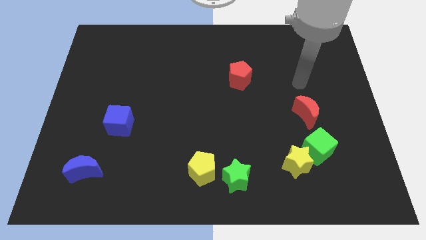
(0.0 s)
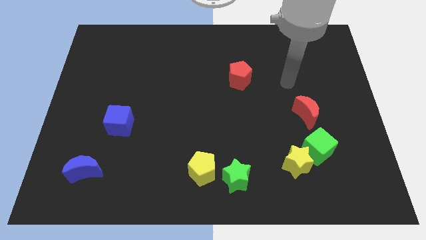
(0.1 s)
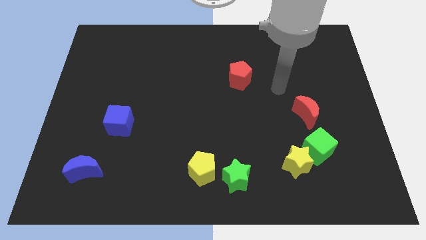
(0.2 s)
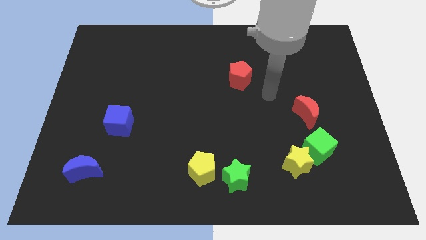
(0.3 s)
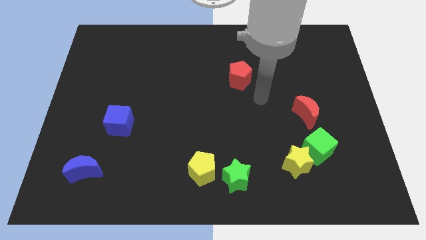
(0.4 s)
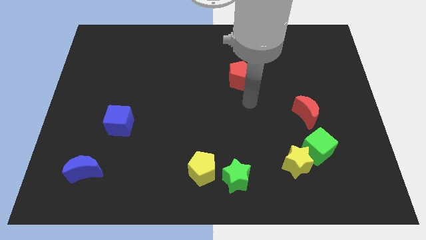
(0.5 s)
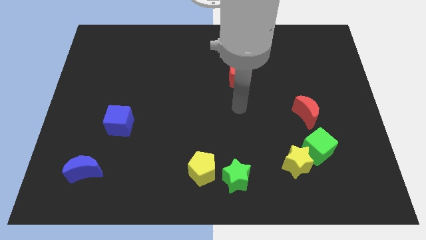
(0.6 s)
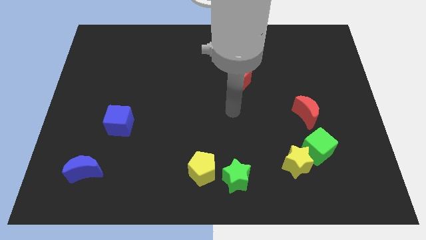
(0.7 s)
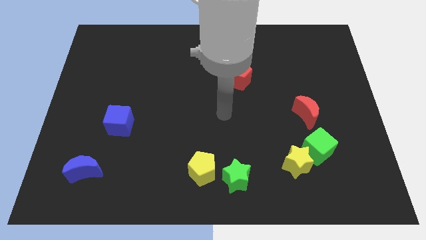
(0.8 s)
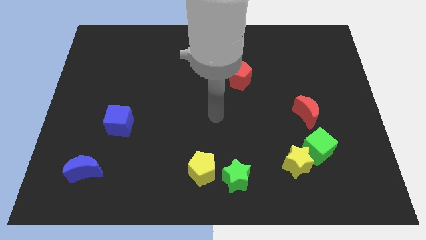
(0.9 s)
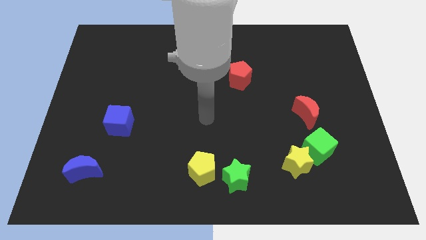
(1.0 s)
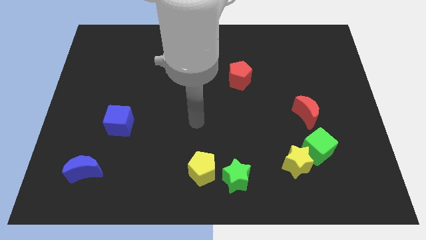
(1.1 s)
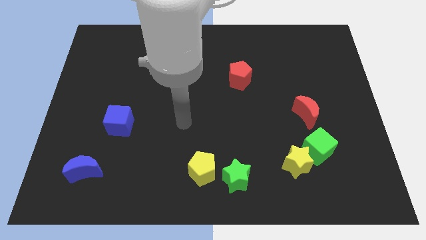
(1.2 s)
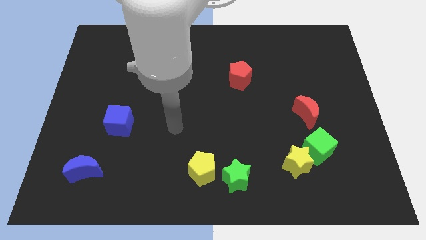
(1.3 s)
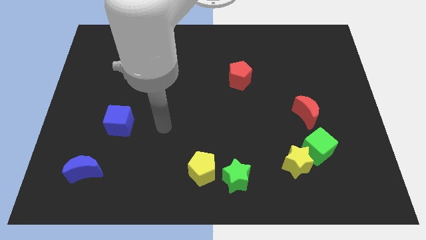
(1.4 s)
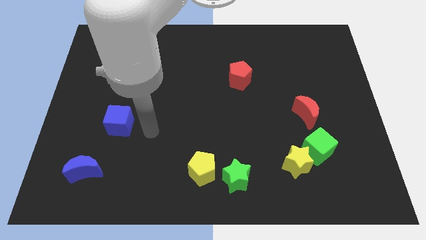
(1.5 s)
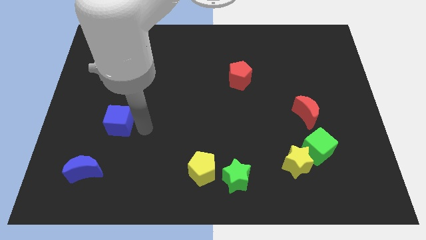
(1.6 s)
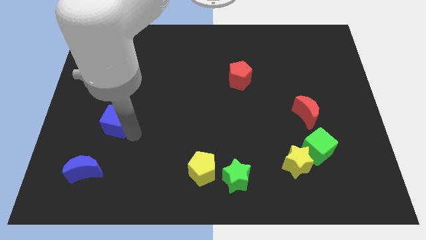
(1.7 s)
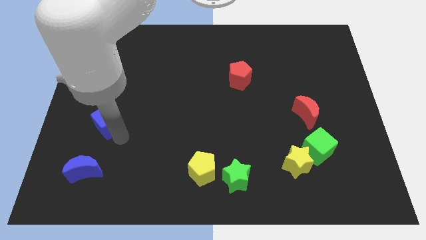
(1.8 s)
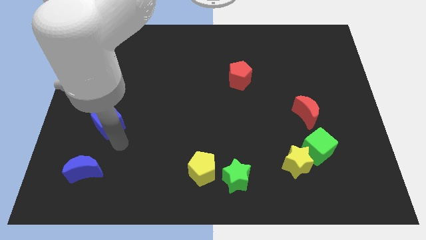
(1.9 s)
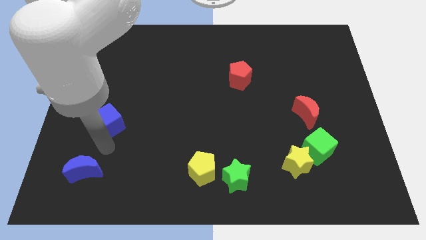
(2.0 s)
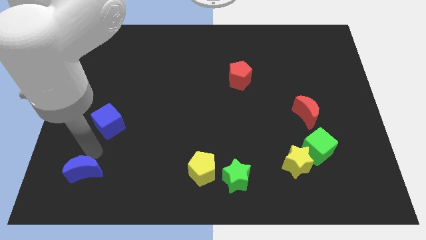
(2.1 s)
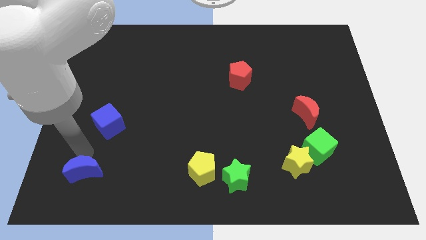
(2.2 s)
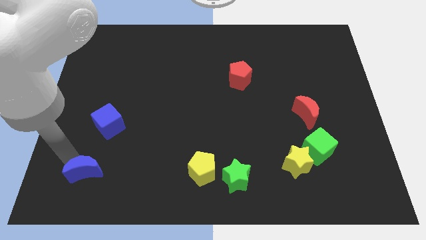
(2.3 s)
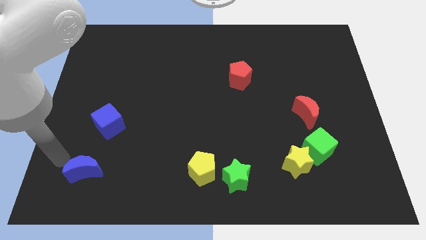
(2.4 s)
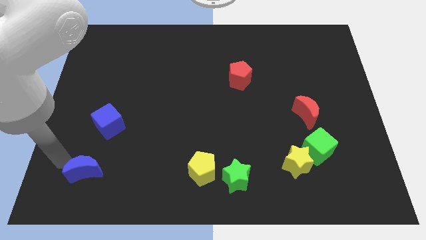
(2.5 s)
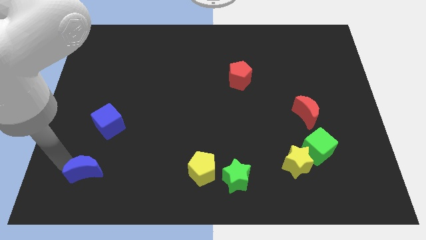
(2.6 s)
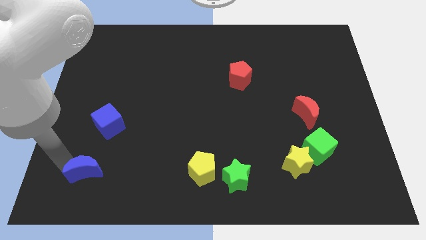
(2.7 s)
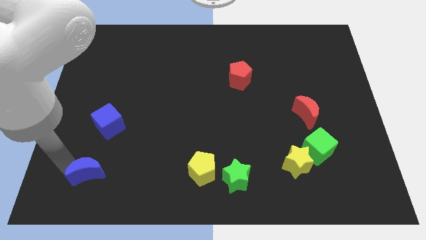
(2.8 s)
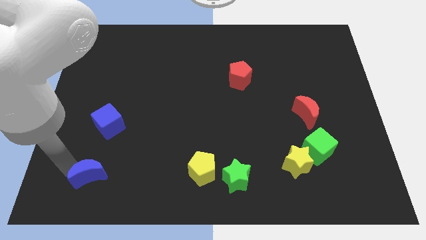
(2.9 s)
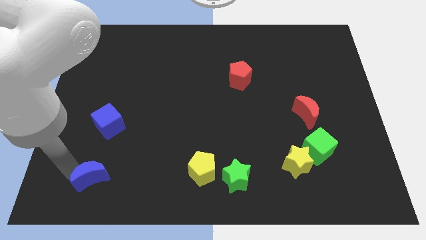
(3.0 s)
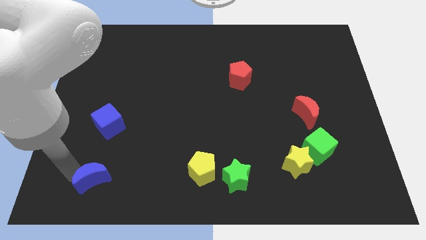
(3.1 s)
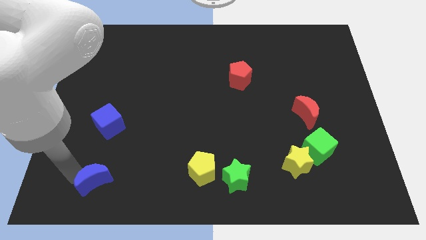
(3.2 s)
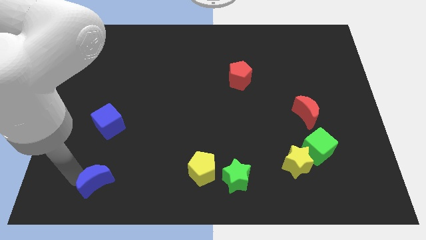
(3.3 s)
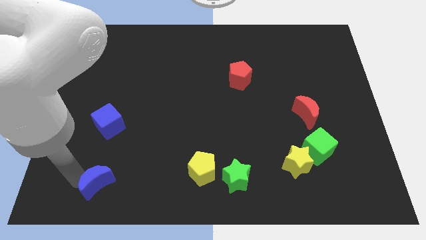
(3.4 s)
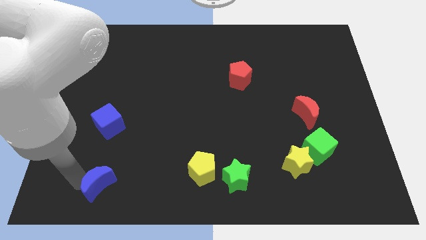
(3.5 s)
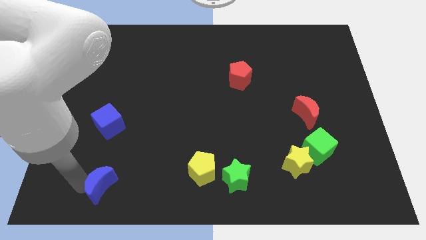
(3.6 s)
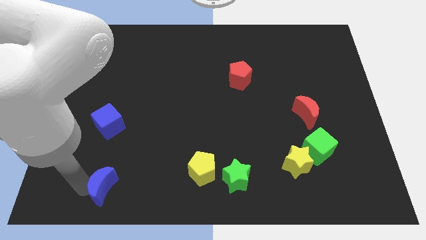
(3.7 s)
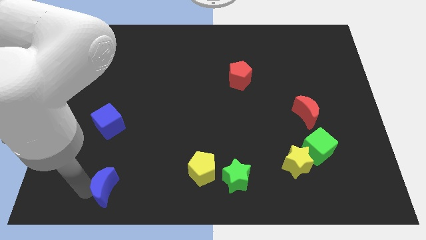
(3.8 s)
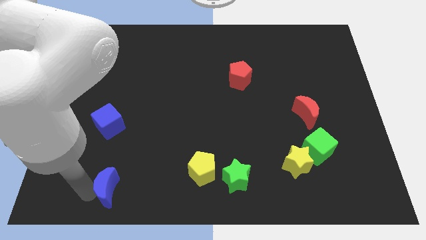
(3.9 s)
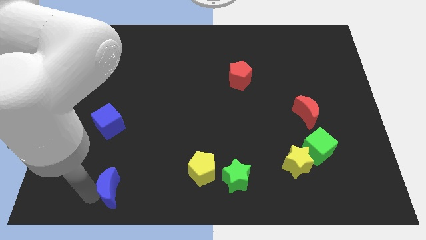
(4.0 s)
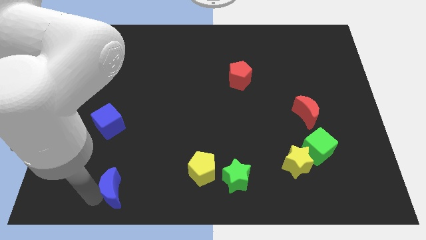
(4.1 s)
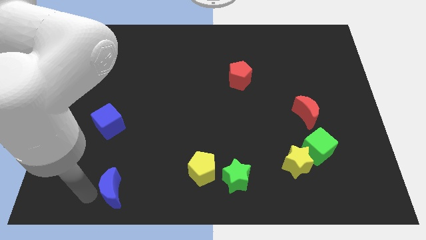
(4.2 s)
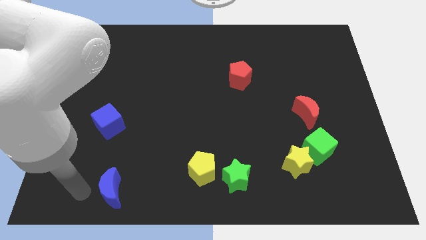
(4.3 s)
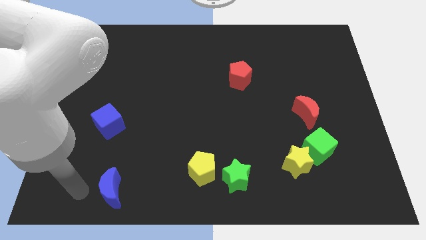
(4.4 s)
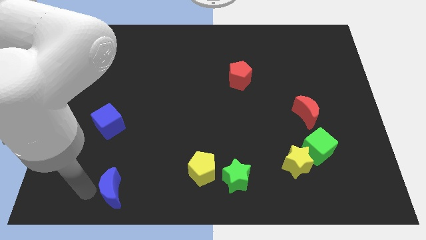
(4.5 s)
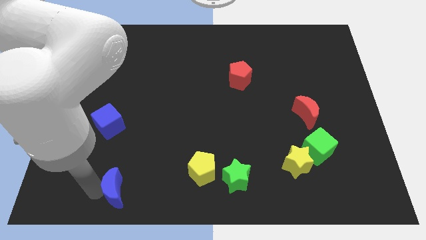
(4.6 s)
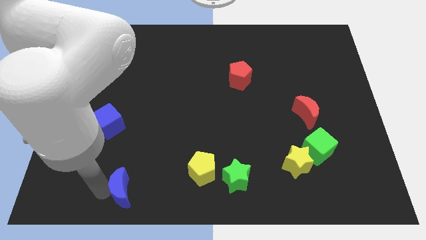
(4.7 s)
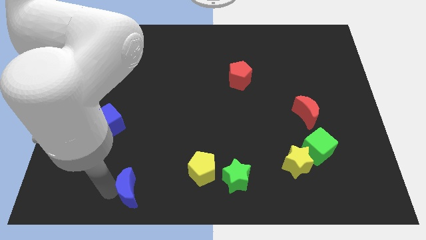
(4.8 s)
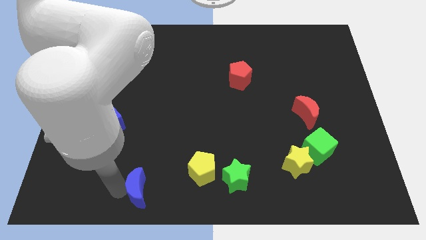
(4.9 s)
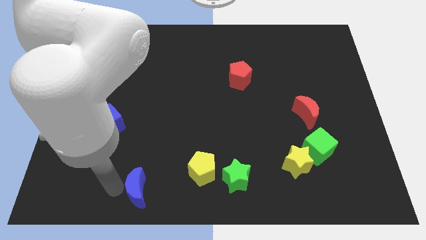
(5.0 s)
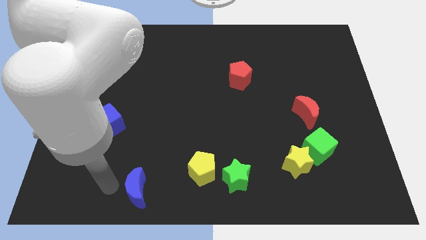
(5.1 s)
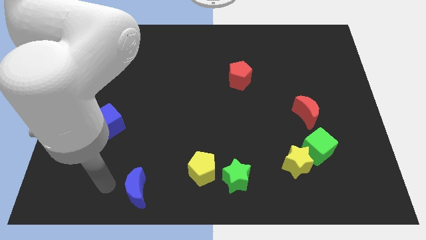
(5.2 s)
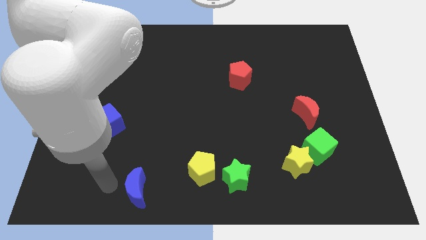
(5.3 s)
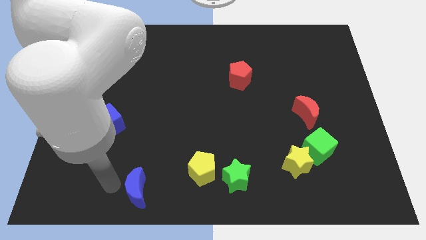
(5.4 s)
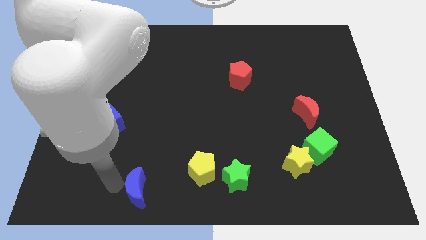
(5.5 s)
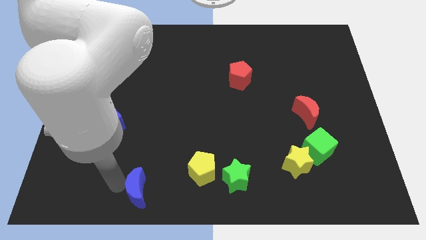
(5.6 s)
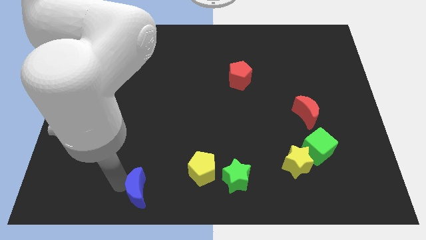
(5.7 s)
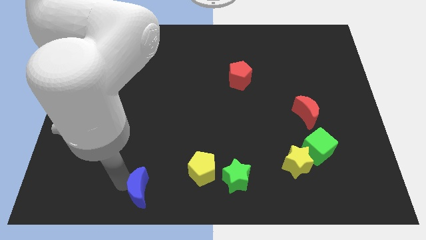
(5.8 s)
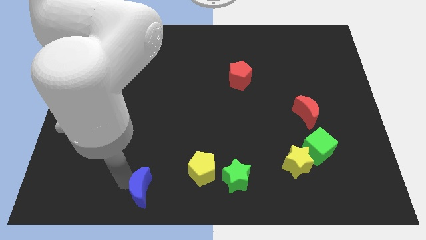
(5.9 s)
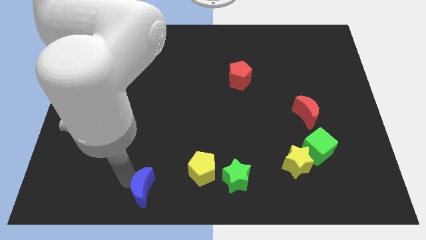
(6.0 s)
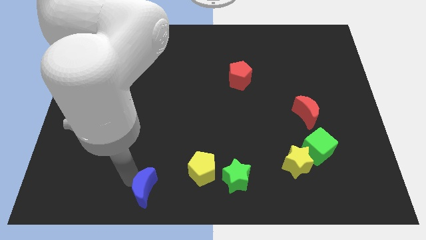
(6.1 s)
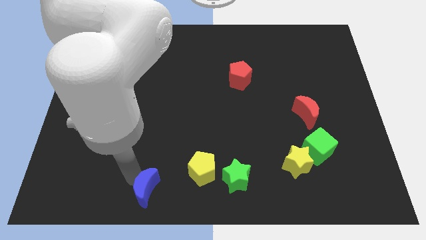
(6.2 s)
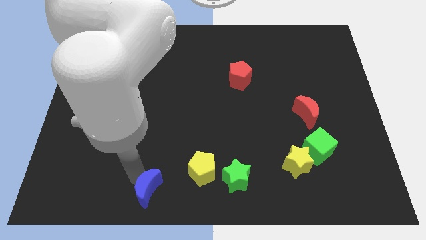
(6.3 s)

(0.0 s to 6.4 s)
put the blue moon to the bottom side
